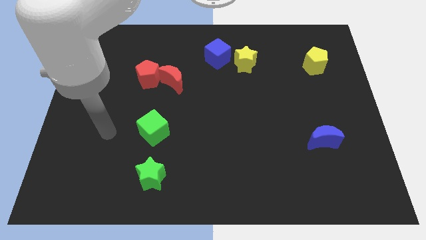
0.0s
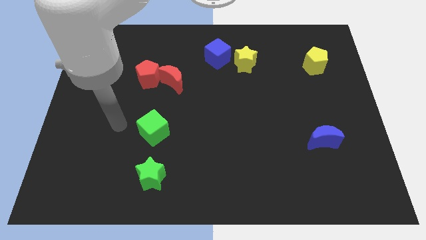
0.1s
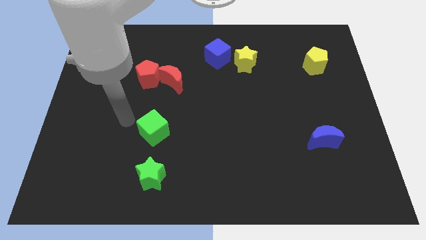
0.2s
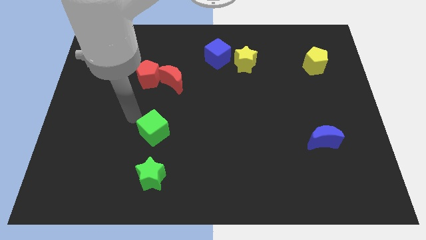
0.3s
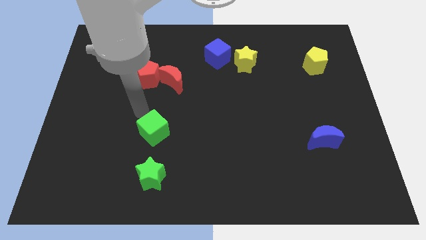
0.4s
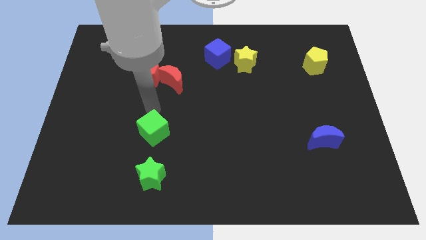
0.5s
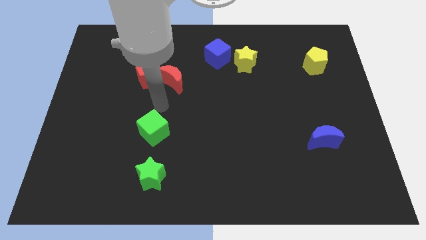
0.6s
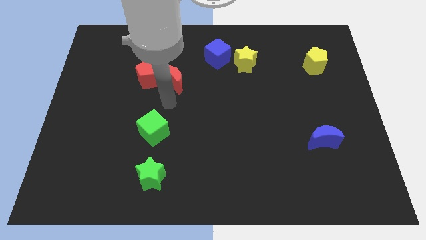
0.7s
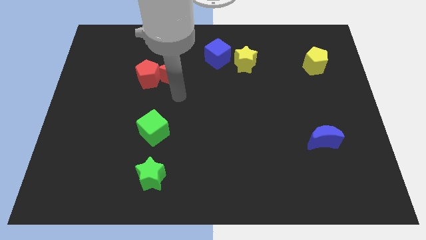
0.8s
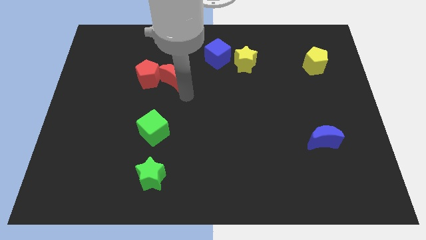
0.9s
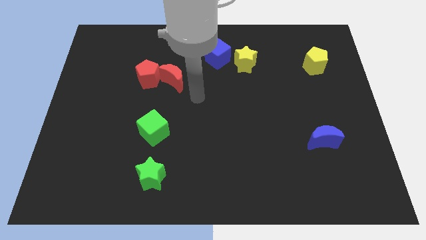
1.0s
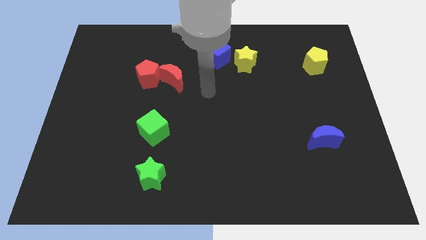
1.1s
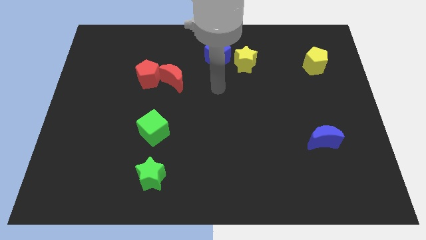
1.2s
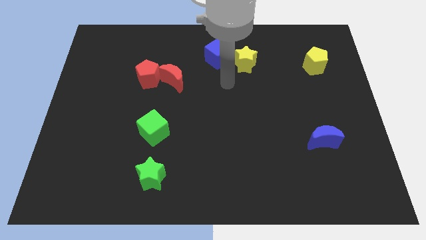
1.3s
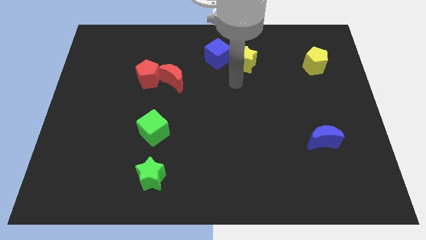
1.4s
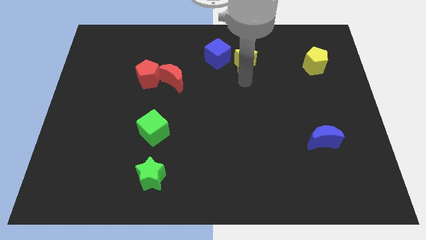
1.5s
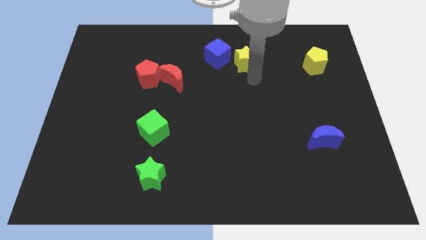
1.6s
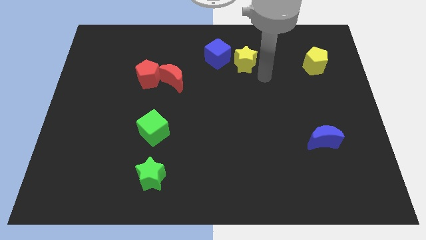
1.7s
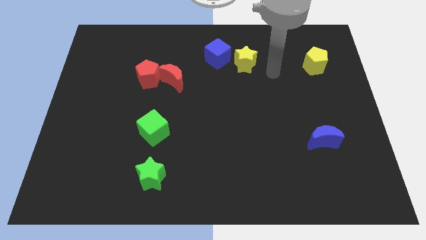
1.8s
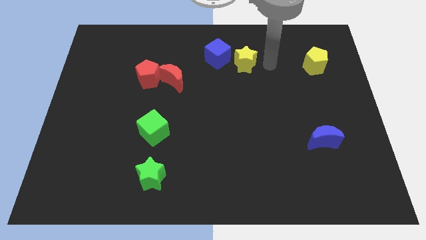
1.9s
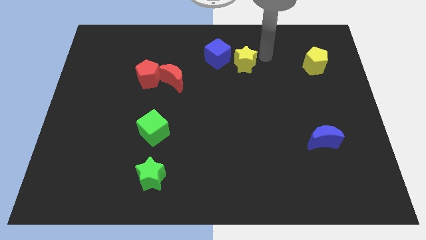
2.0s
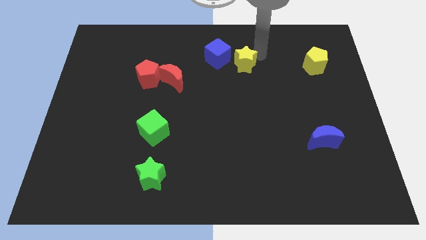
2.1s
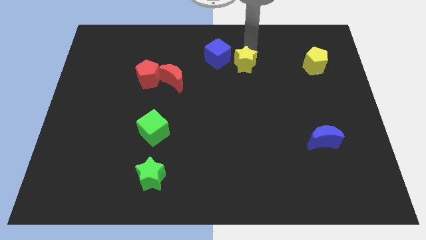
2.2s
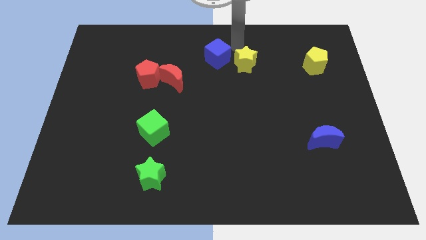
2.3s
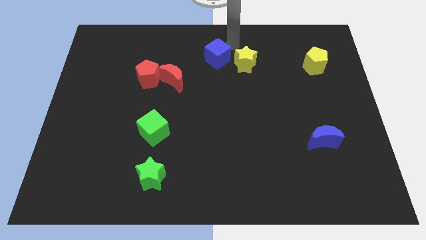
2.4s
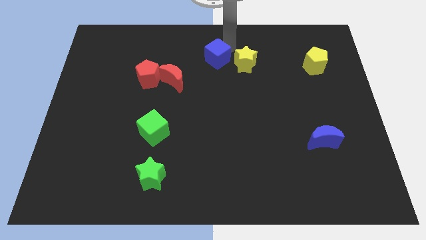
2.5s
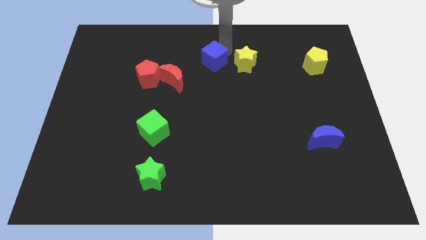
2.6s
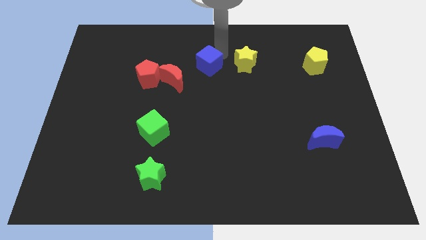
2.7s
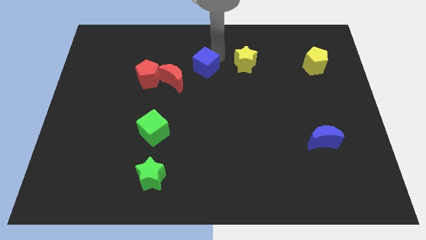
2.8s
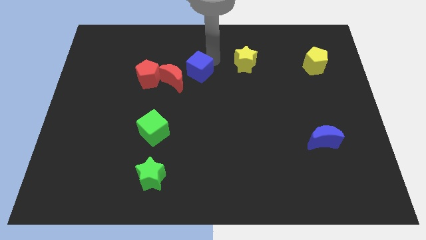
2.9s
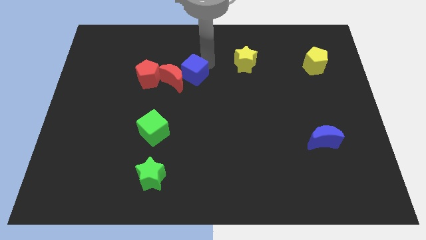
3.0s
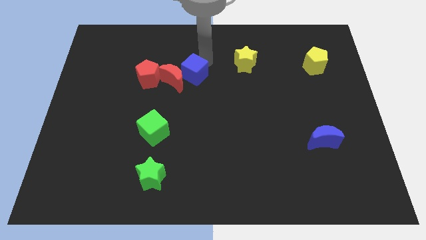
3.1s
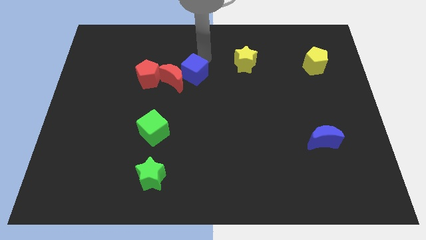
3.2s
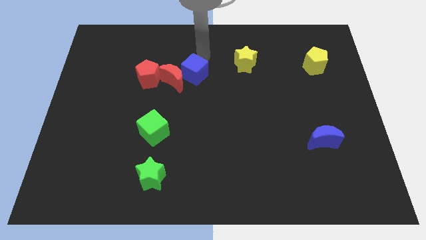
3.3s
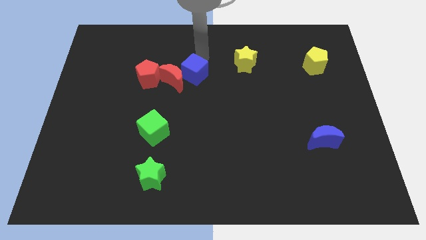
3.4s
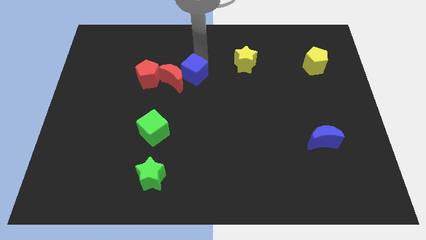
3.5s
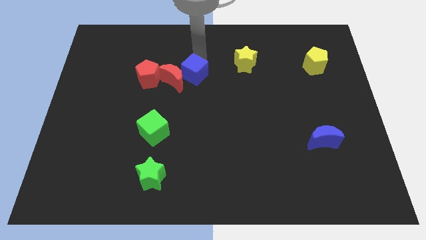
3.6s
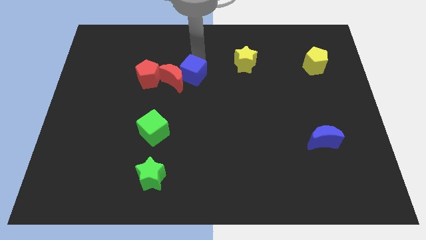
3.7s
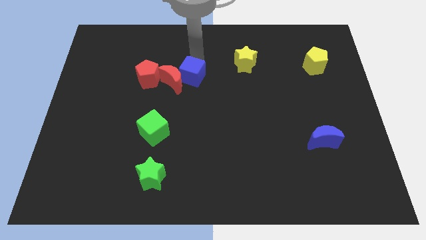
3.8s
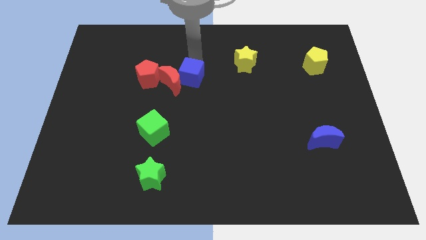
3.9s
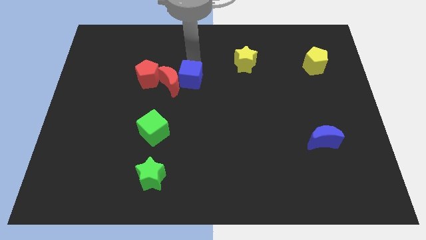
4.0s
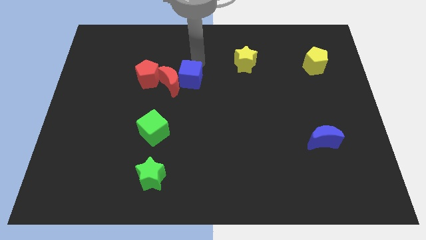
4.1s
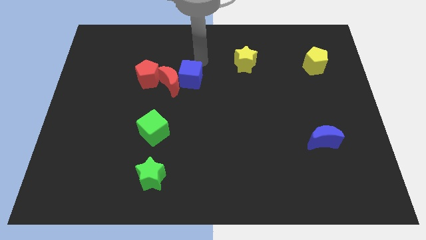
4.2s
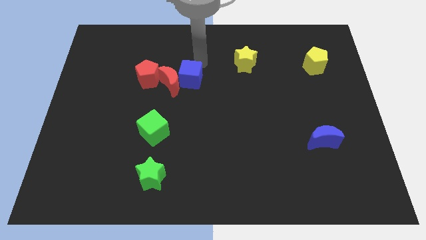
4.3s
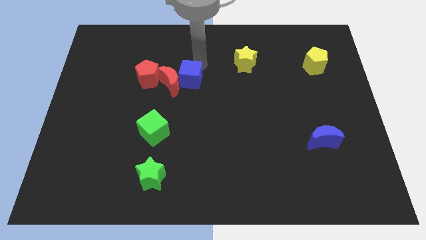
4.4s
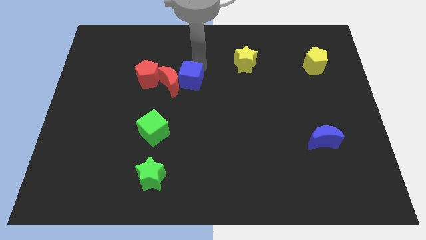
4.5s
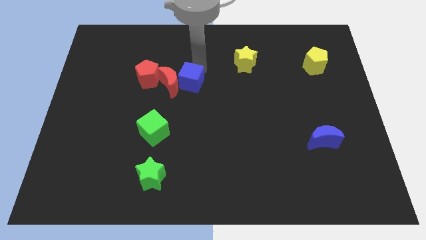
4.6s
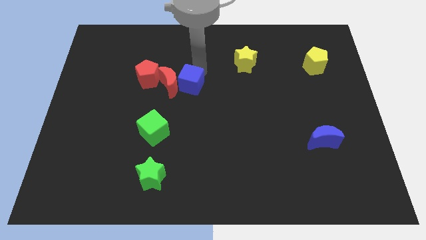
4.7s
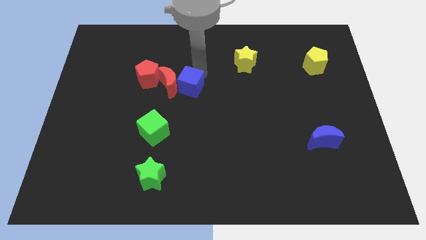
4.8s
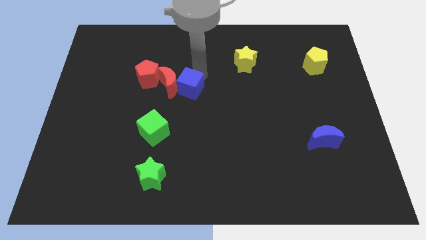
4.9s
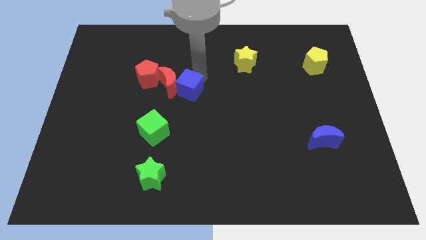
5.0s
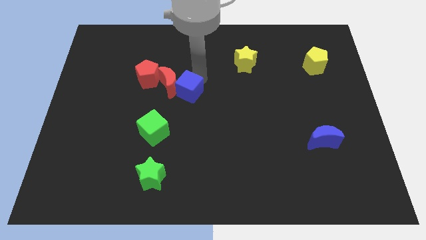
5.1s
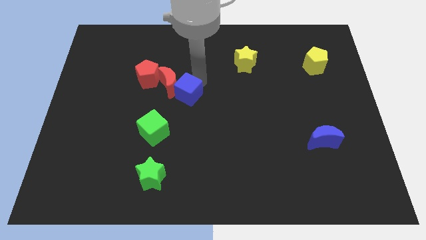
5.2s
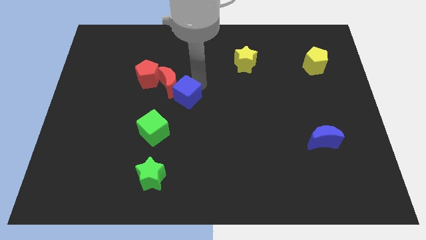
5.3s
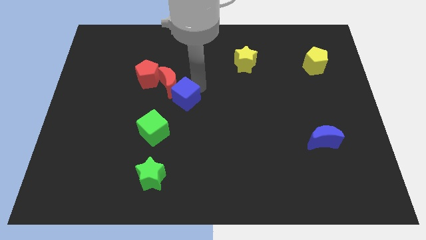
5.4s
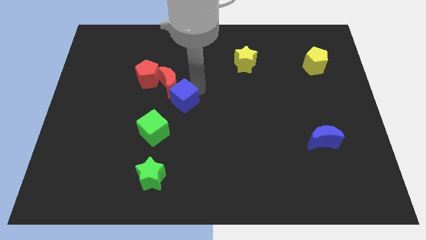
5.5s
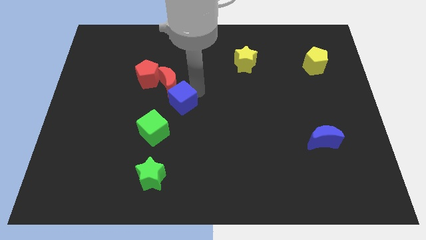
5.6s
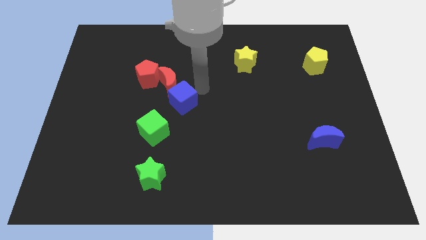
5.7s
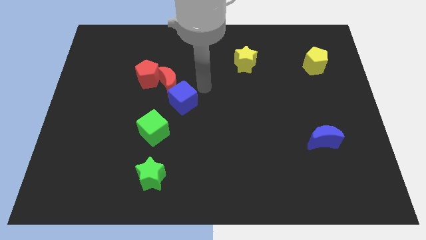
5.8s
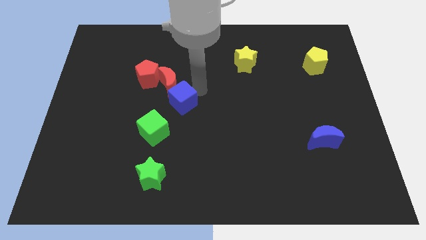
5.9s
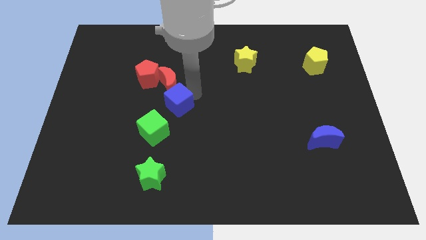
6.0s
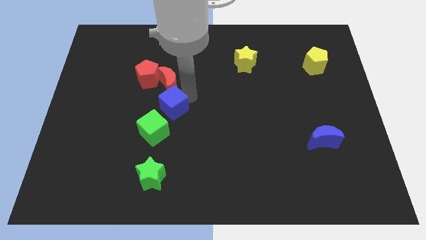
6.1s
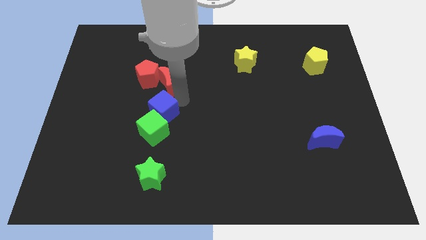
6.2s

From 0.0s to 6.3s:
slide the blue cube to the green cube

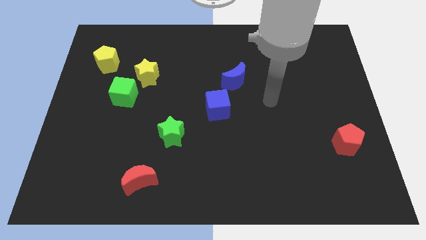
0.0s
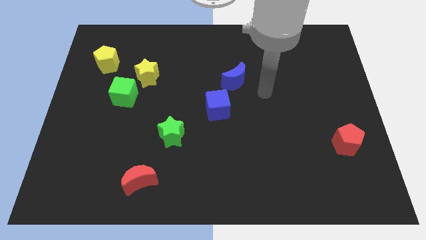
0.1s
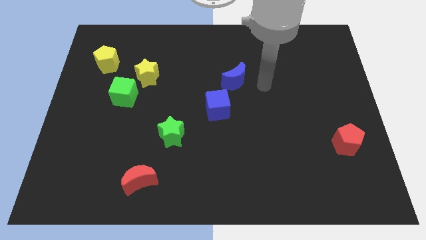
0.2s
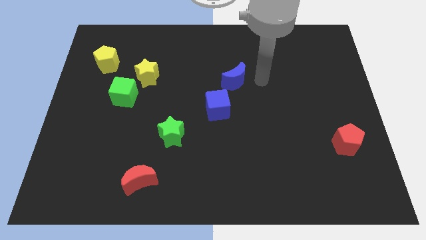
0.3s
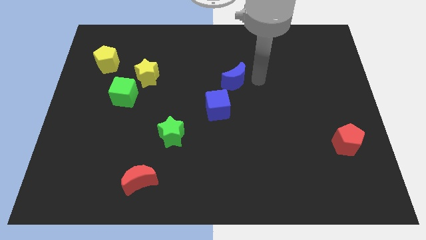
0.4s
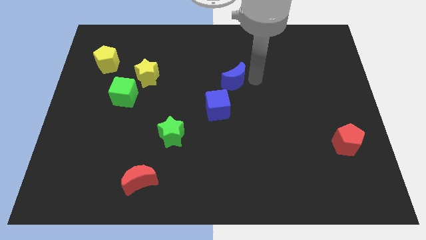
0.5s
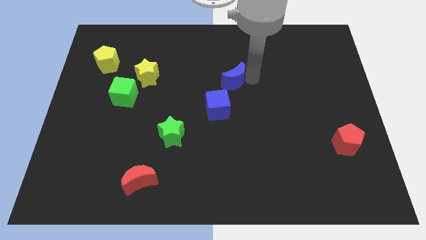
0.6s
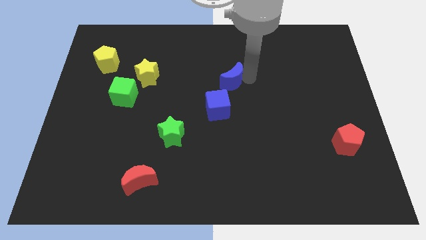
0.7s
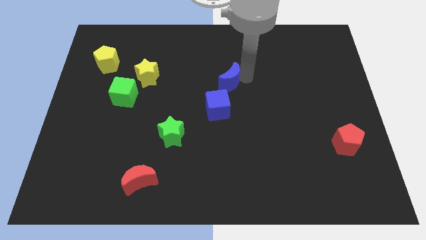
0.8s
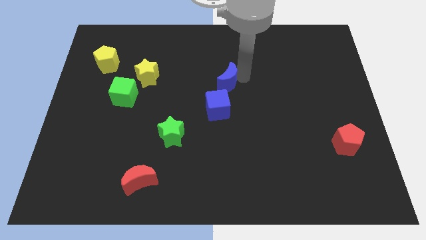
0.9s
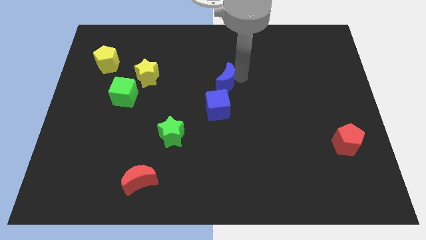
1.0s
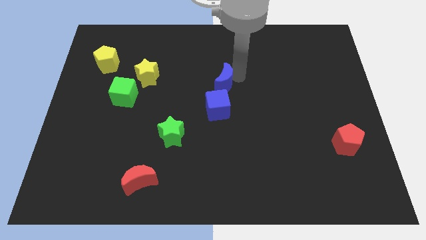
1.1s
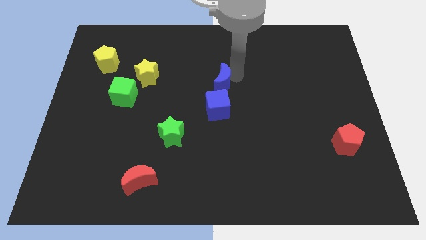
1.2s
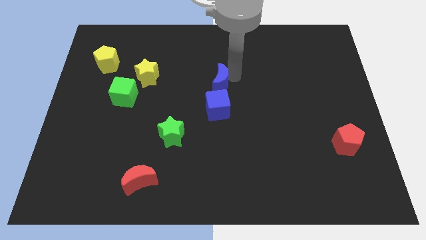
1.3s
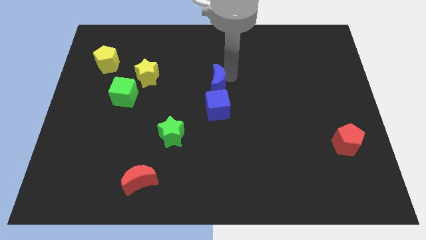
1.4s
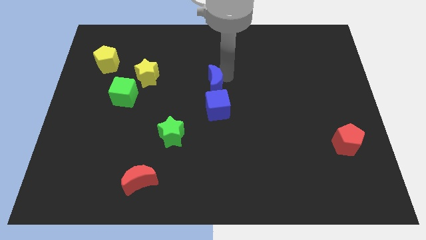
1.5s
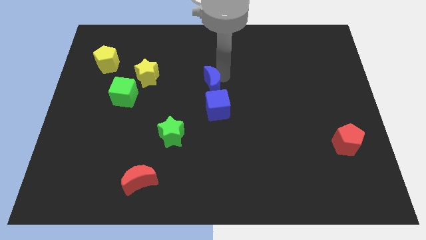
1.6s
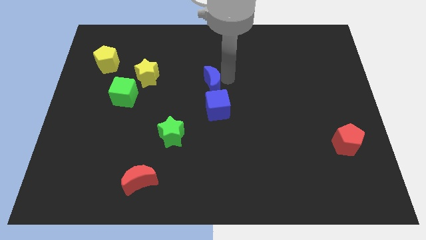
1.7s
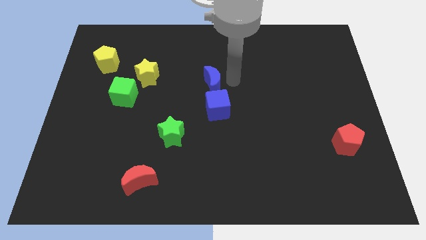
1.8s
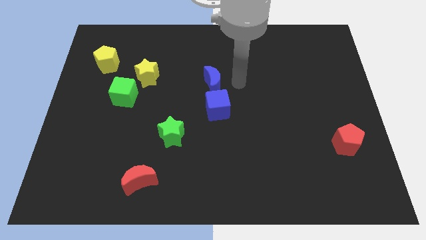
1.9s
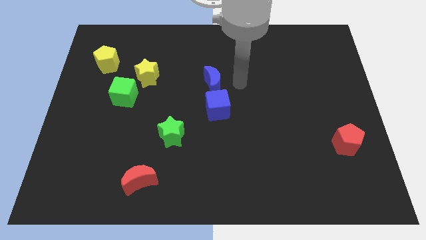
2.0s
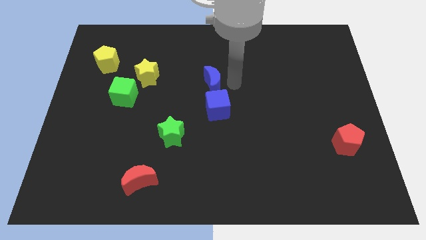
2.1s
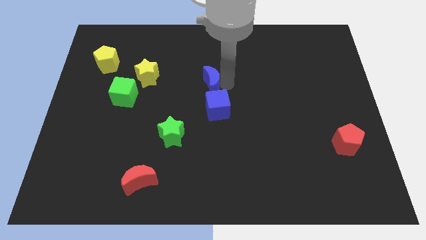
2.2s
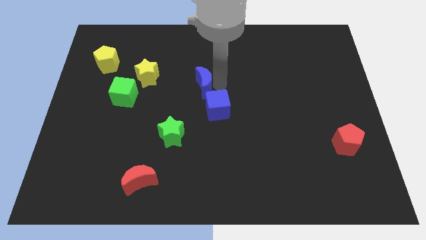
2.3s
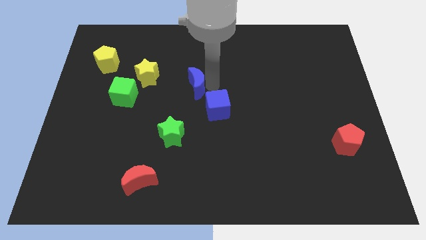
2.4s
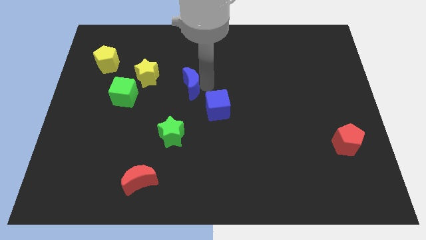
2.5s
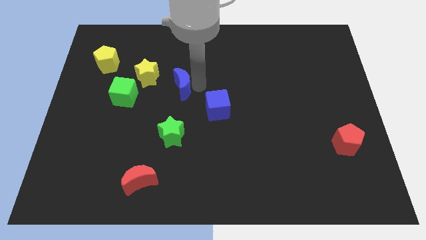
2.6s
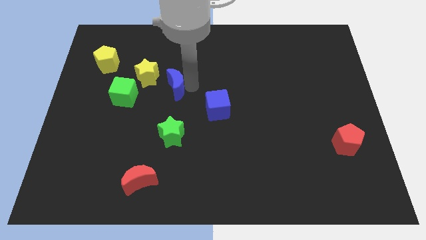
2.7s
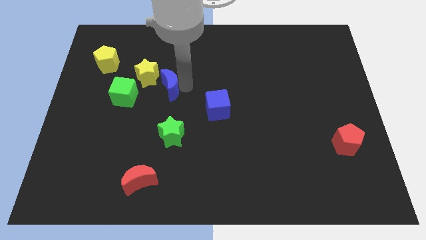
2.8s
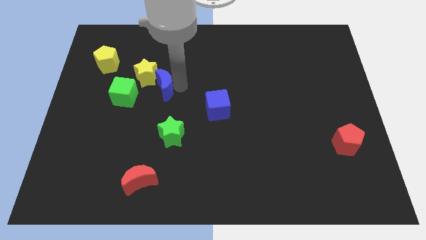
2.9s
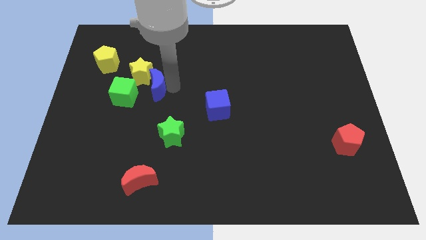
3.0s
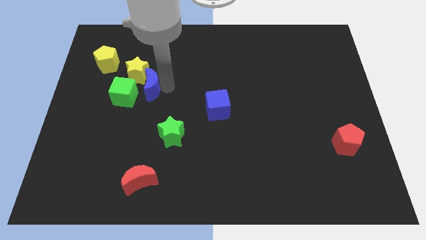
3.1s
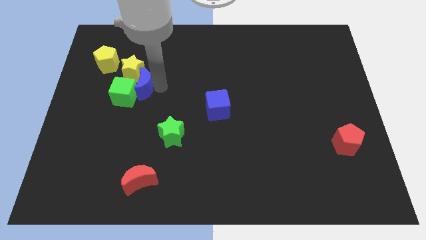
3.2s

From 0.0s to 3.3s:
push the blue moon towards the green cube
